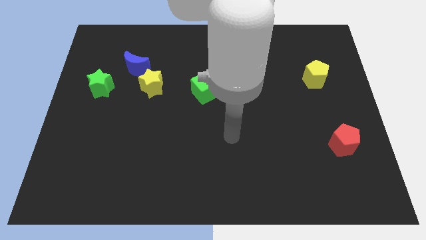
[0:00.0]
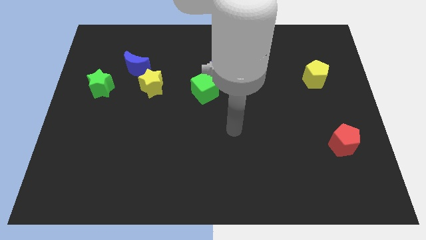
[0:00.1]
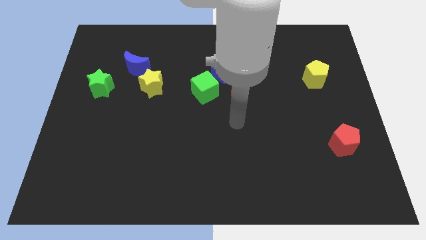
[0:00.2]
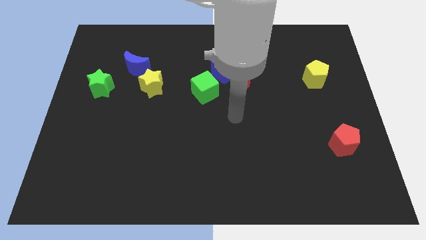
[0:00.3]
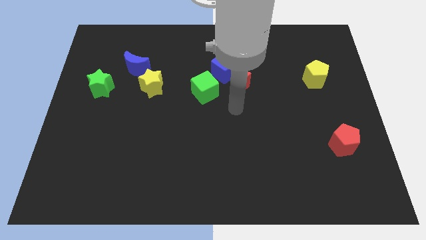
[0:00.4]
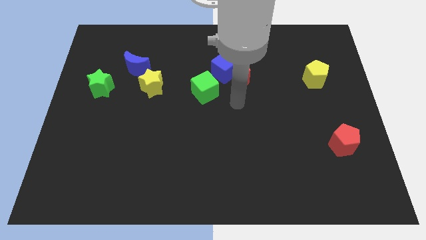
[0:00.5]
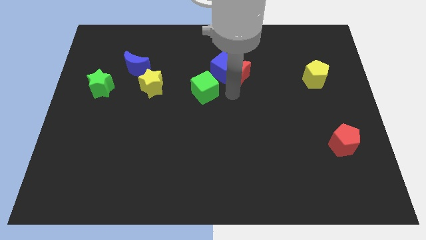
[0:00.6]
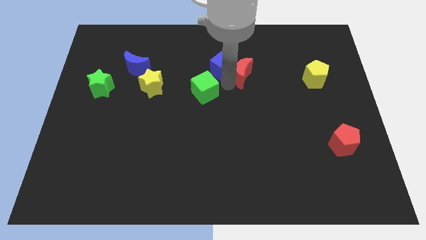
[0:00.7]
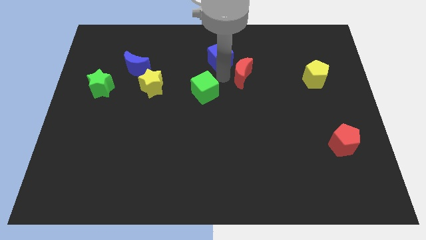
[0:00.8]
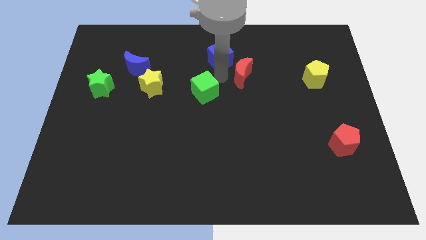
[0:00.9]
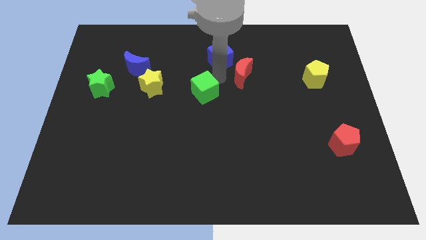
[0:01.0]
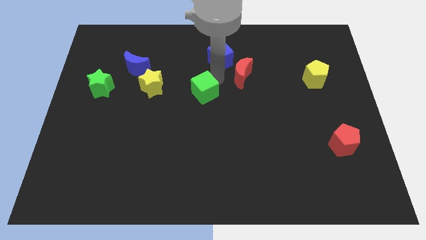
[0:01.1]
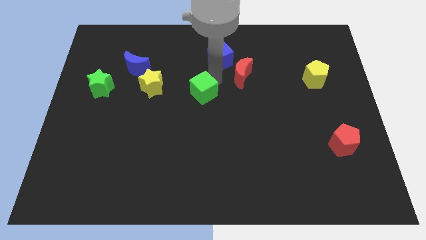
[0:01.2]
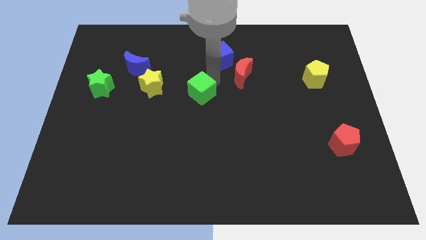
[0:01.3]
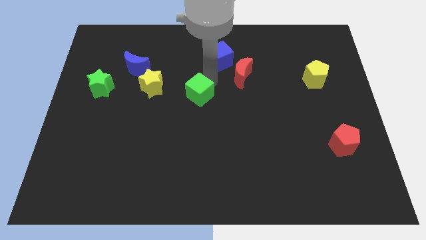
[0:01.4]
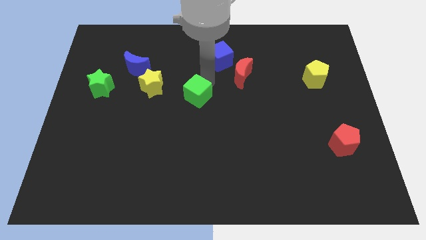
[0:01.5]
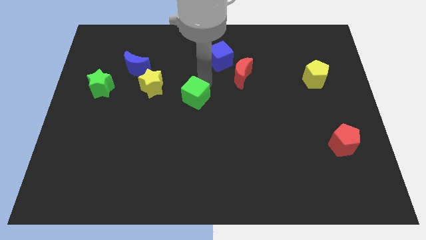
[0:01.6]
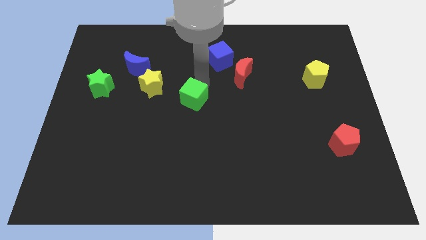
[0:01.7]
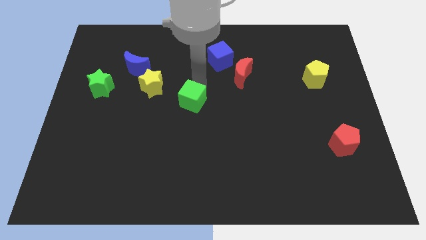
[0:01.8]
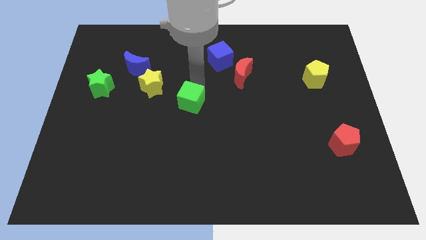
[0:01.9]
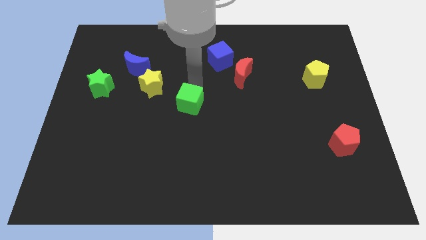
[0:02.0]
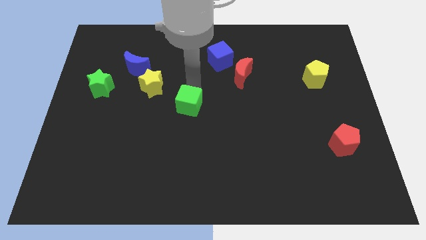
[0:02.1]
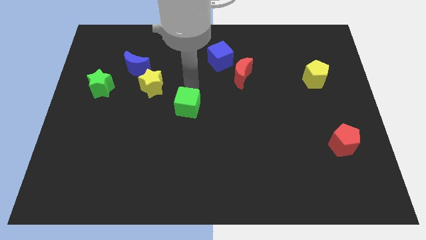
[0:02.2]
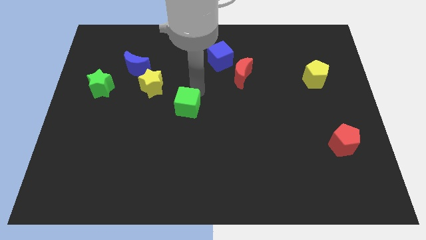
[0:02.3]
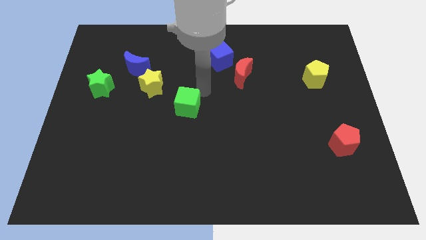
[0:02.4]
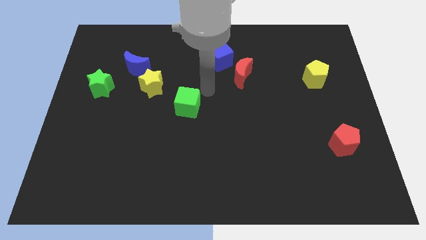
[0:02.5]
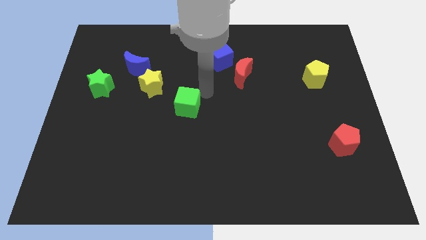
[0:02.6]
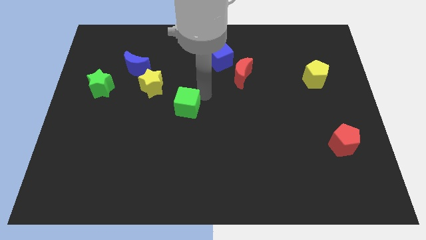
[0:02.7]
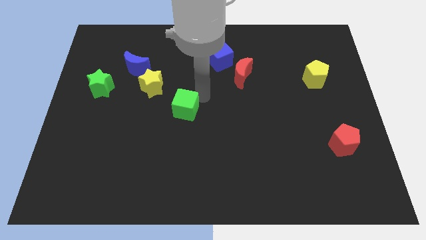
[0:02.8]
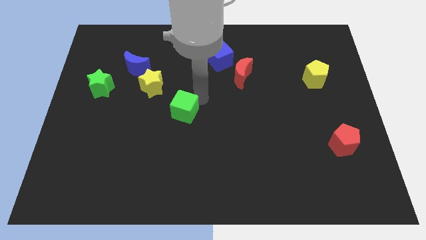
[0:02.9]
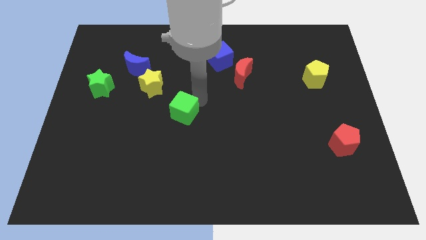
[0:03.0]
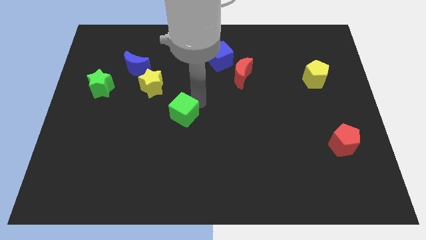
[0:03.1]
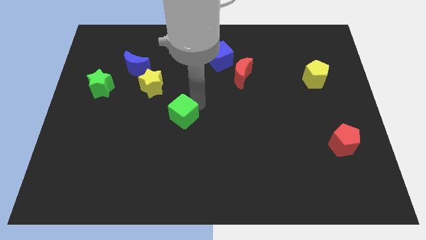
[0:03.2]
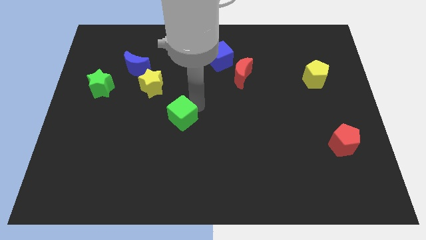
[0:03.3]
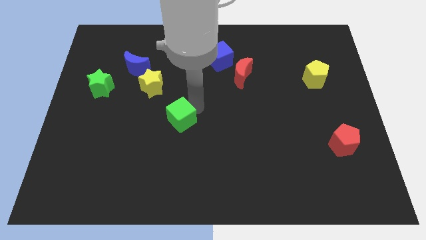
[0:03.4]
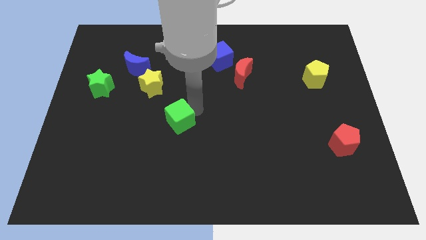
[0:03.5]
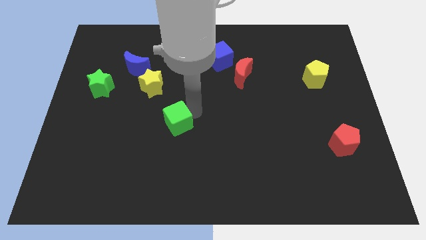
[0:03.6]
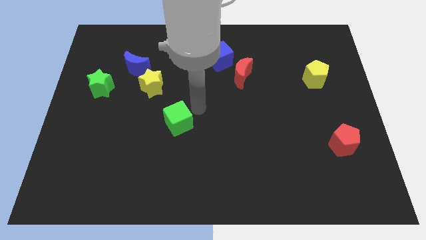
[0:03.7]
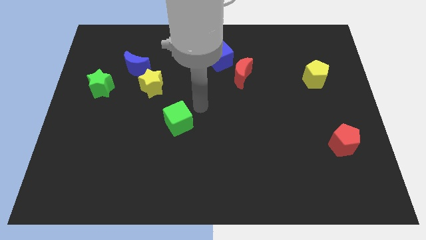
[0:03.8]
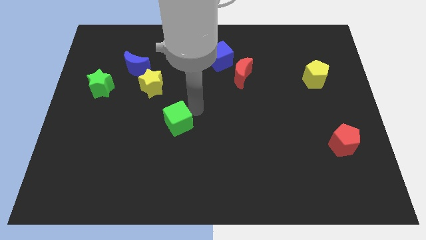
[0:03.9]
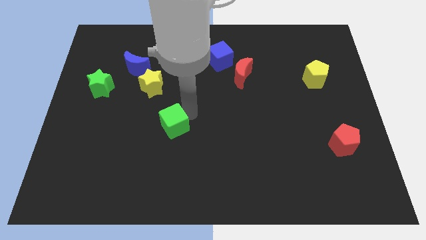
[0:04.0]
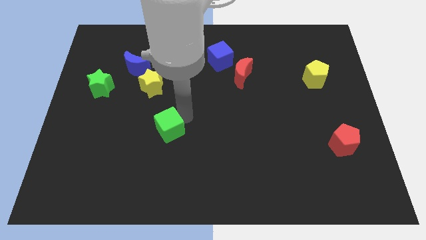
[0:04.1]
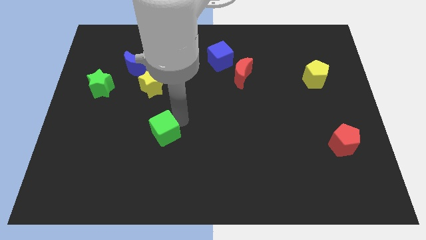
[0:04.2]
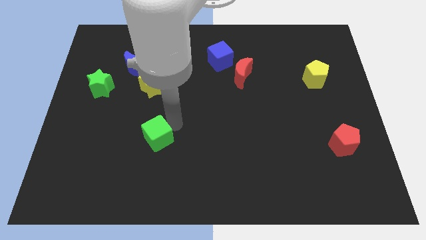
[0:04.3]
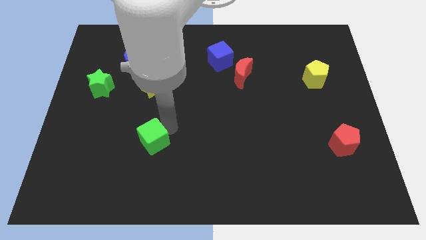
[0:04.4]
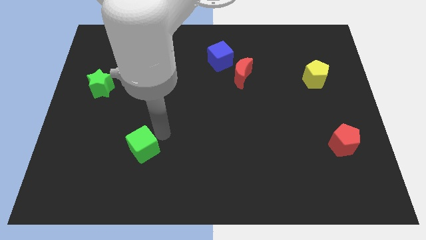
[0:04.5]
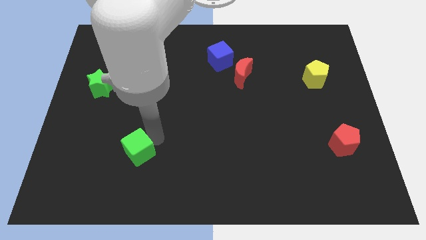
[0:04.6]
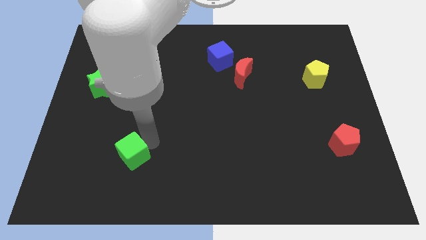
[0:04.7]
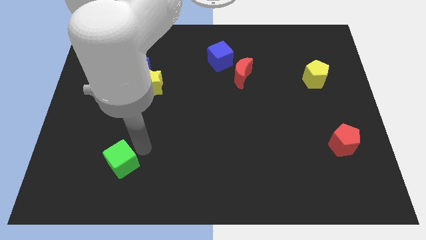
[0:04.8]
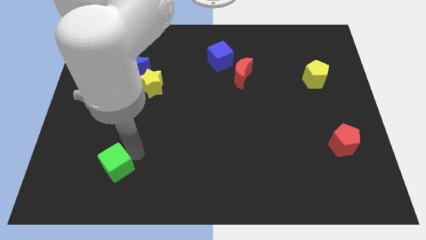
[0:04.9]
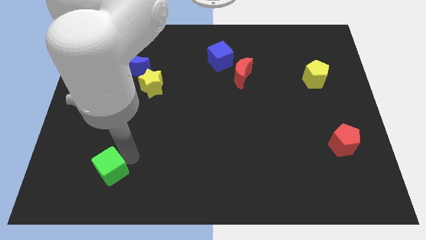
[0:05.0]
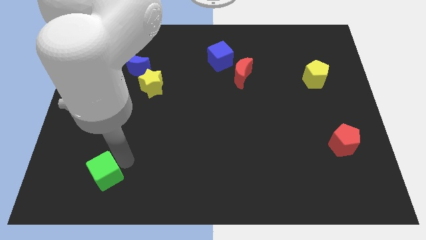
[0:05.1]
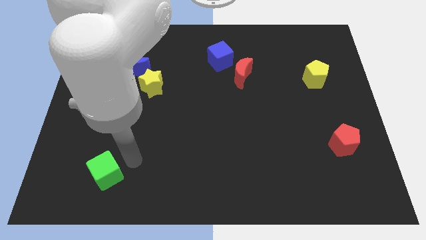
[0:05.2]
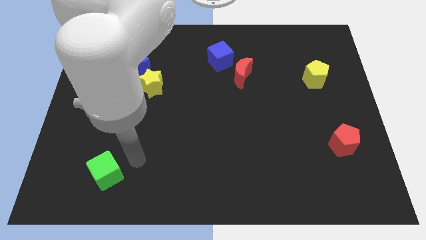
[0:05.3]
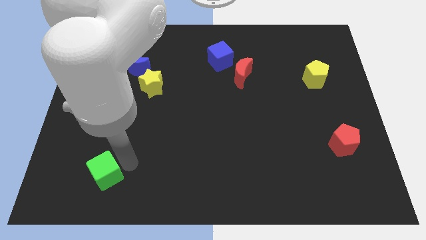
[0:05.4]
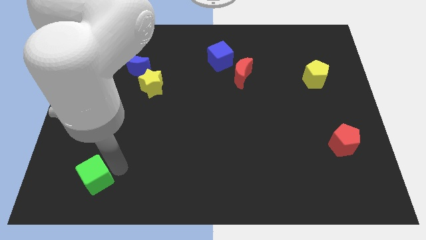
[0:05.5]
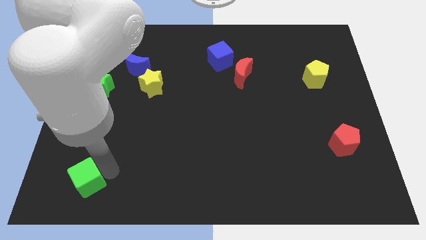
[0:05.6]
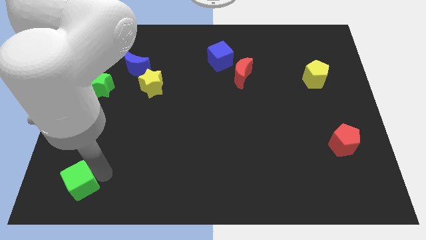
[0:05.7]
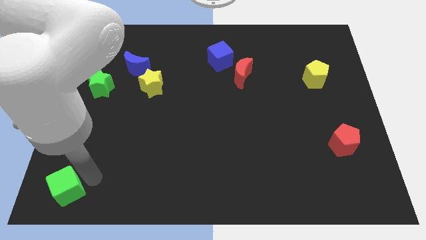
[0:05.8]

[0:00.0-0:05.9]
put the green cube to the bottom left of the board

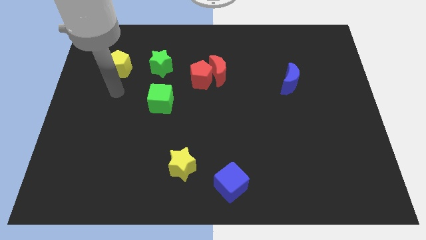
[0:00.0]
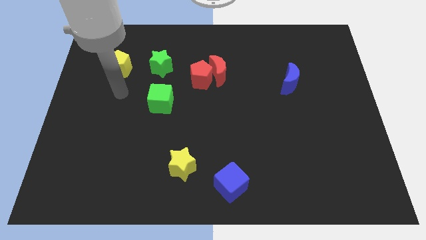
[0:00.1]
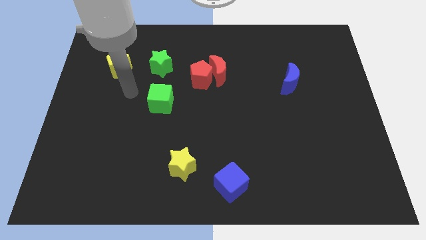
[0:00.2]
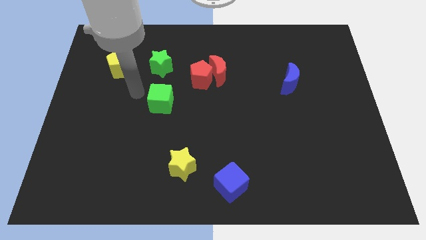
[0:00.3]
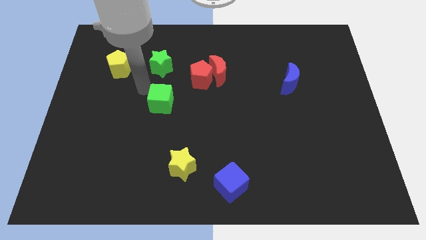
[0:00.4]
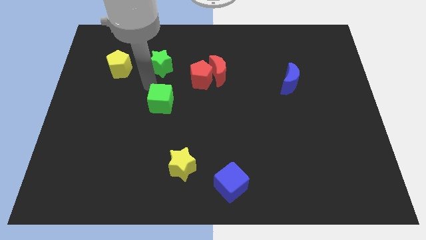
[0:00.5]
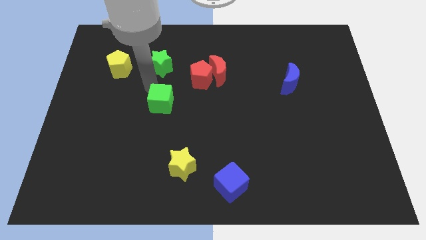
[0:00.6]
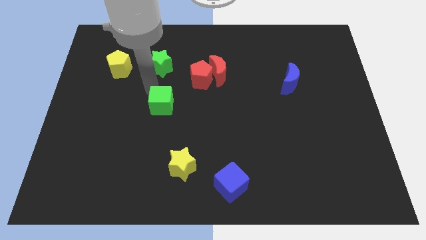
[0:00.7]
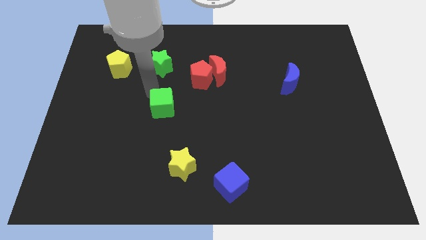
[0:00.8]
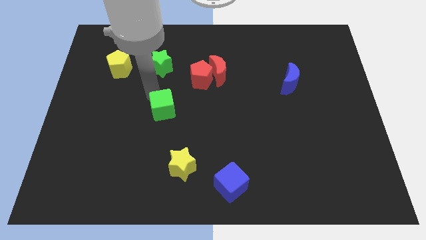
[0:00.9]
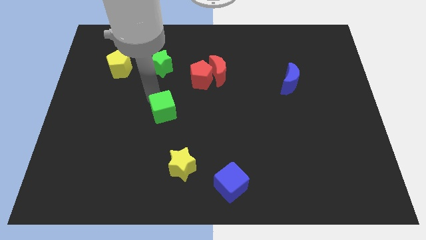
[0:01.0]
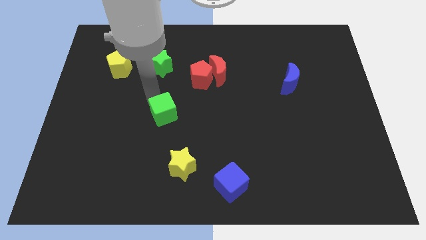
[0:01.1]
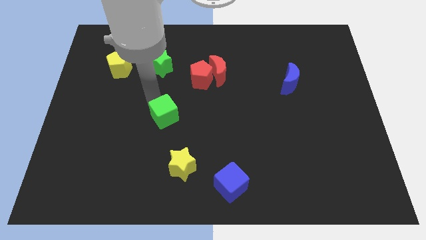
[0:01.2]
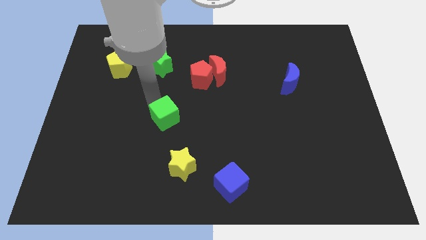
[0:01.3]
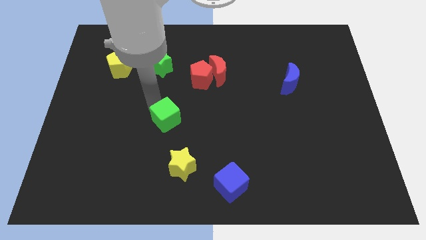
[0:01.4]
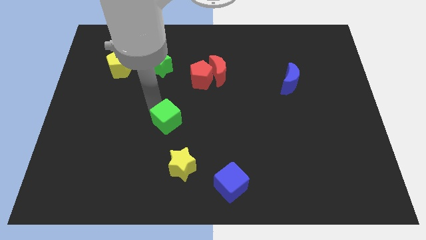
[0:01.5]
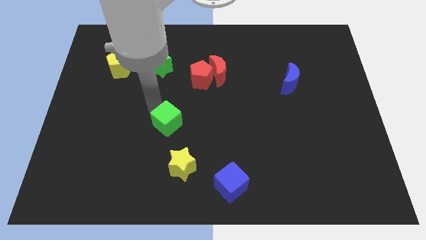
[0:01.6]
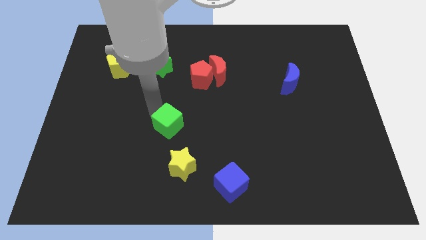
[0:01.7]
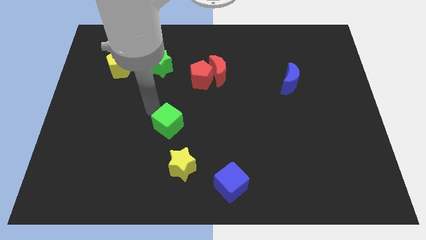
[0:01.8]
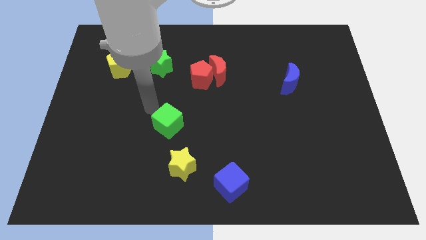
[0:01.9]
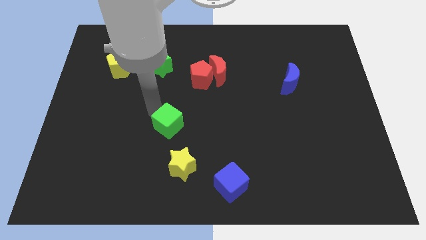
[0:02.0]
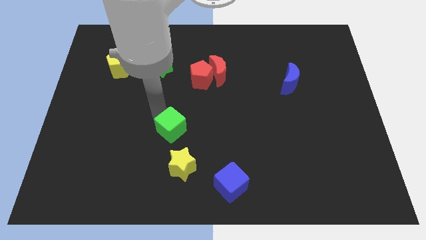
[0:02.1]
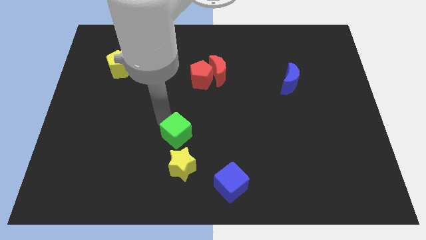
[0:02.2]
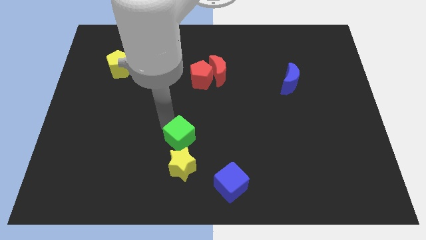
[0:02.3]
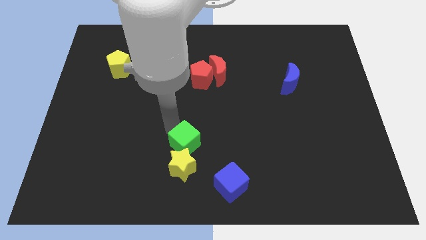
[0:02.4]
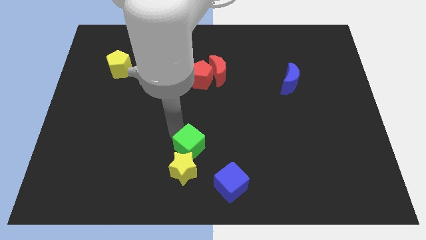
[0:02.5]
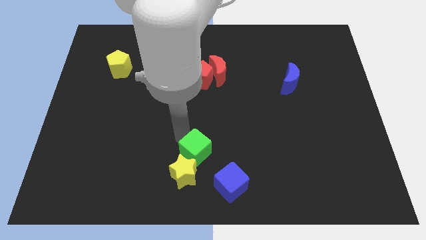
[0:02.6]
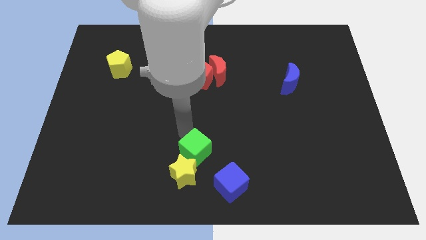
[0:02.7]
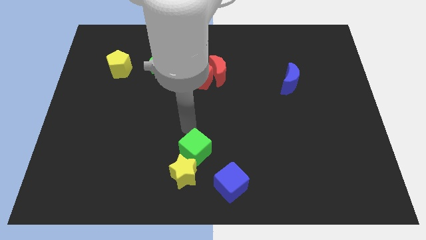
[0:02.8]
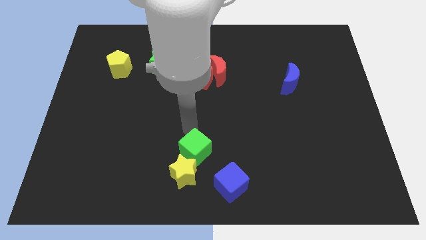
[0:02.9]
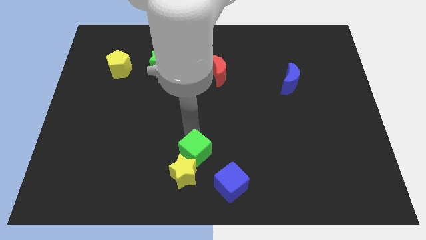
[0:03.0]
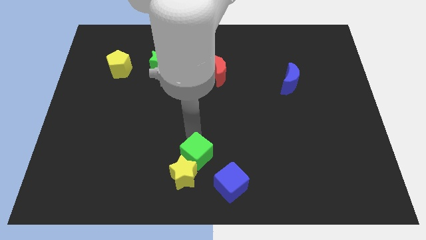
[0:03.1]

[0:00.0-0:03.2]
push the green cube to the bottom
